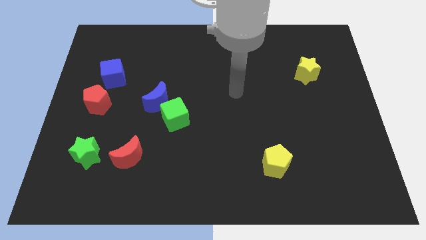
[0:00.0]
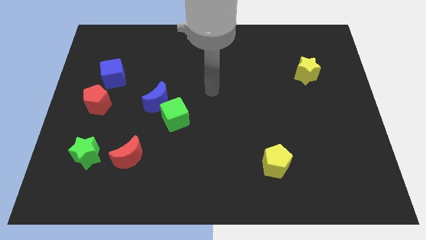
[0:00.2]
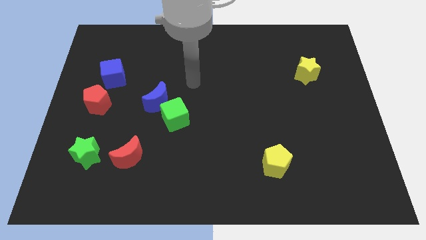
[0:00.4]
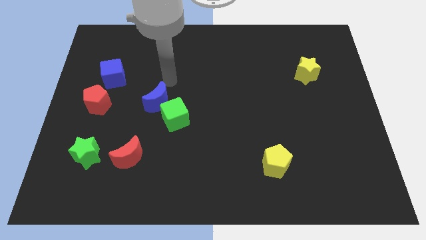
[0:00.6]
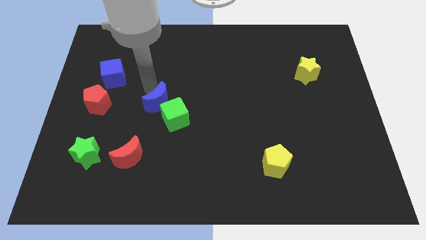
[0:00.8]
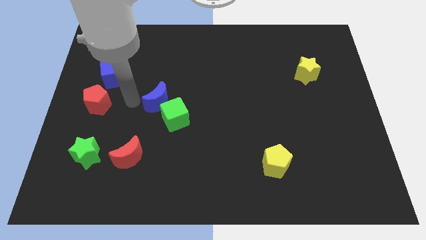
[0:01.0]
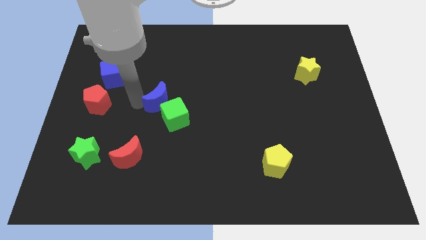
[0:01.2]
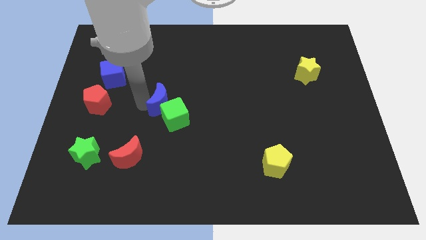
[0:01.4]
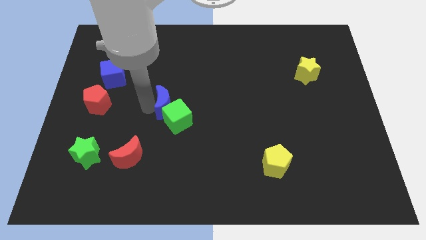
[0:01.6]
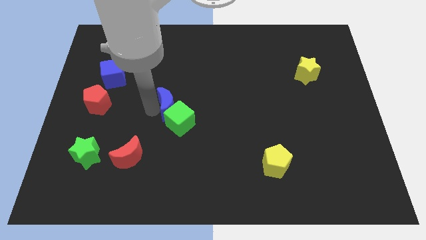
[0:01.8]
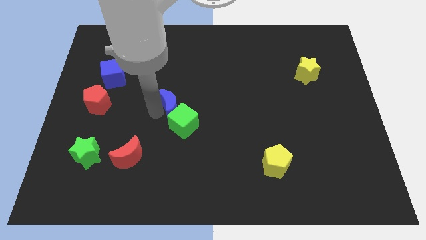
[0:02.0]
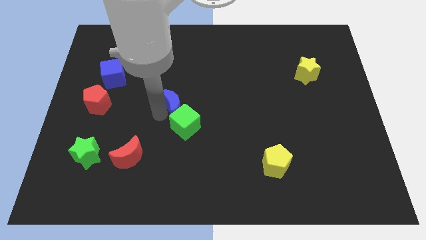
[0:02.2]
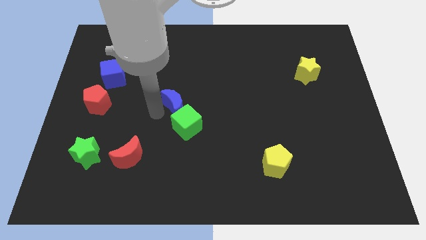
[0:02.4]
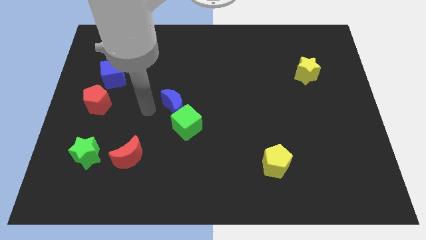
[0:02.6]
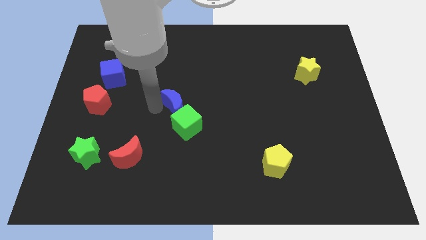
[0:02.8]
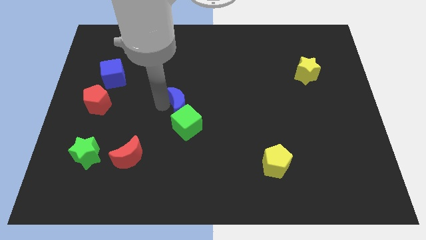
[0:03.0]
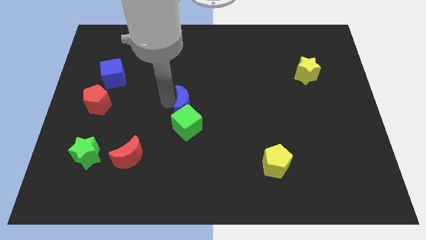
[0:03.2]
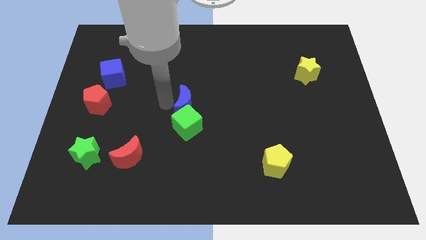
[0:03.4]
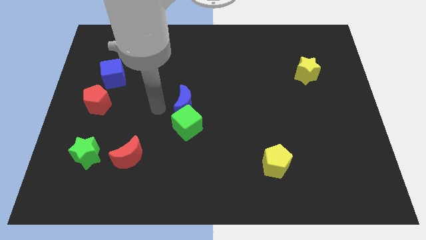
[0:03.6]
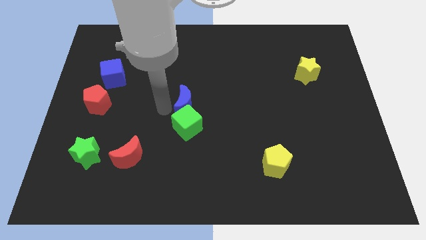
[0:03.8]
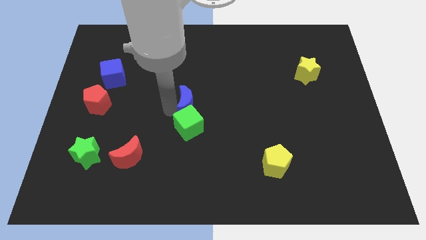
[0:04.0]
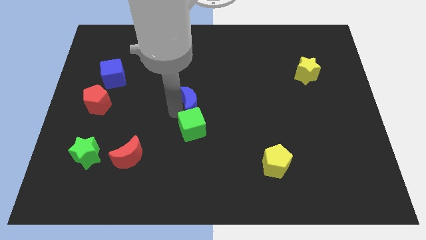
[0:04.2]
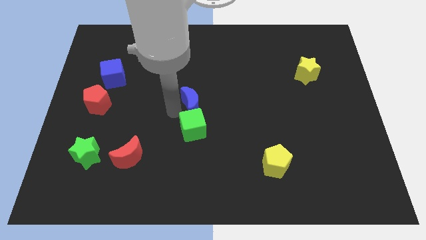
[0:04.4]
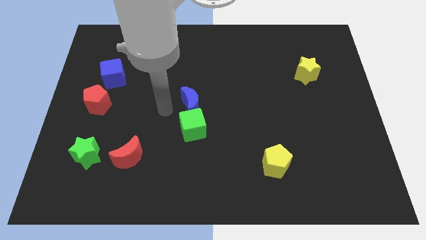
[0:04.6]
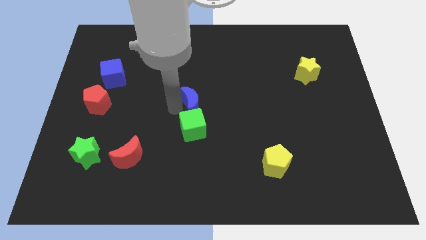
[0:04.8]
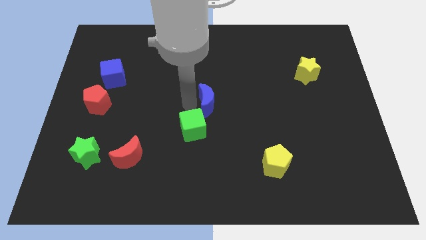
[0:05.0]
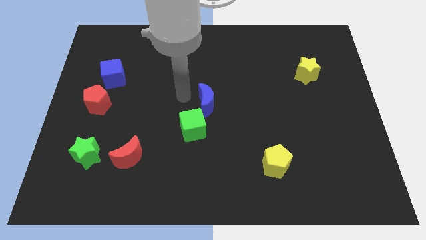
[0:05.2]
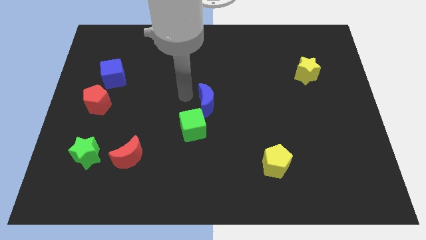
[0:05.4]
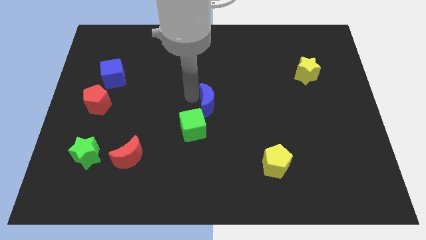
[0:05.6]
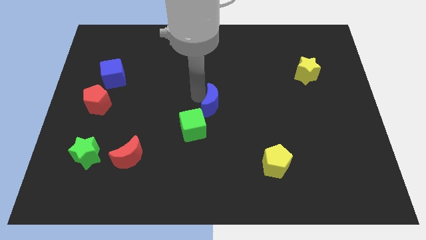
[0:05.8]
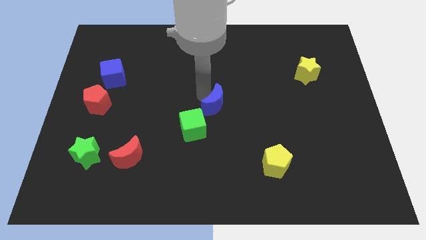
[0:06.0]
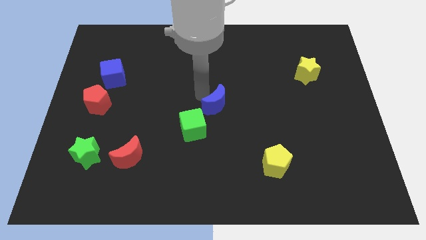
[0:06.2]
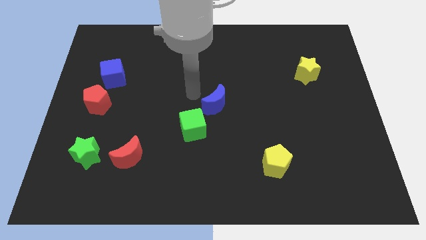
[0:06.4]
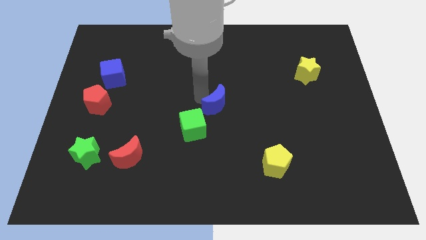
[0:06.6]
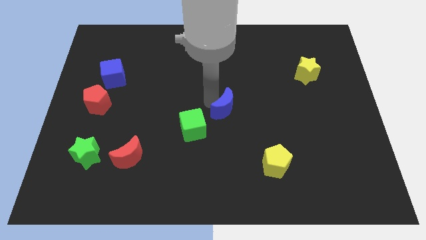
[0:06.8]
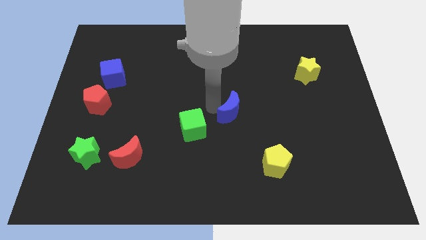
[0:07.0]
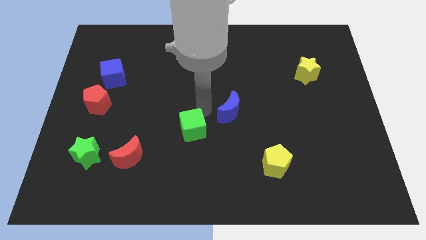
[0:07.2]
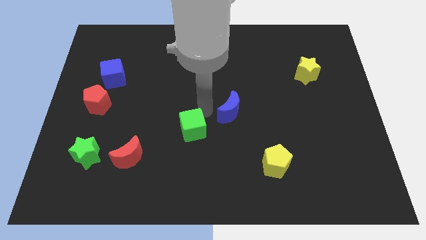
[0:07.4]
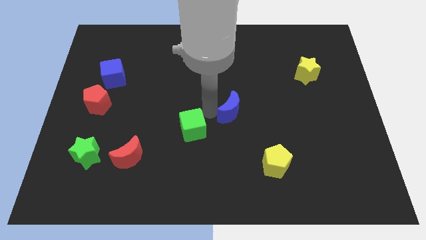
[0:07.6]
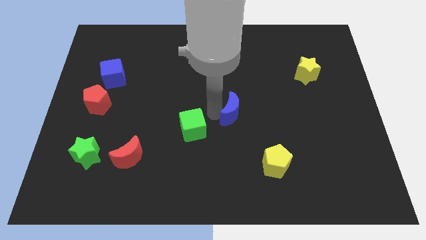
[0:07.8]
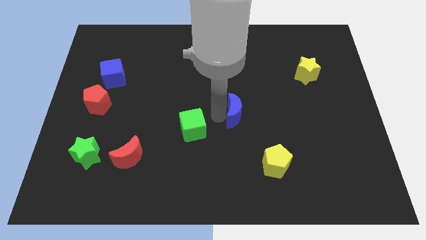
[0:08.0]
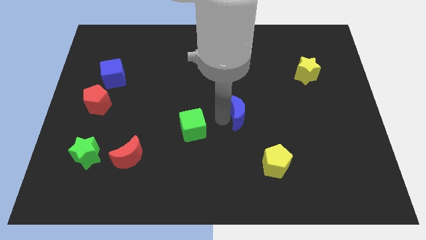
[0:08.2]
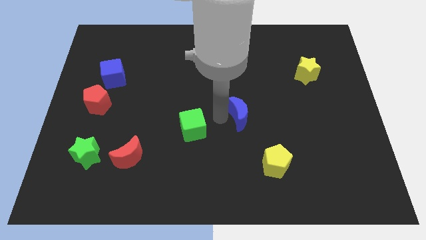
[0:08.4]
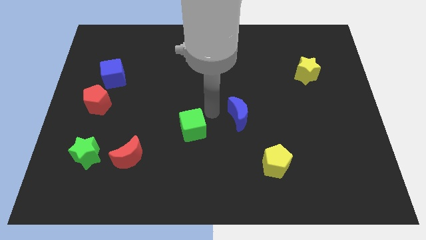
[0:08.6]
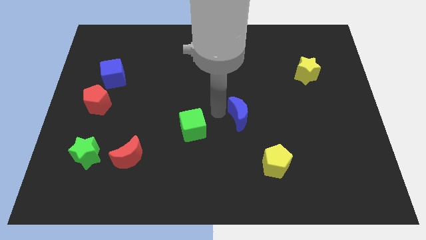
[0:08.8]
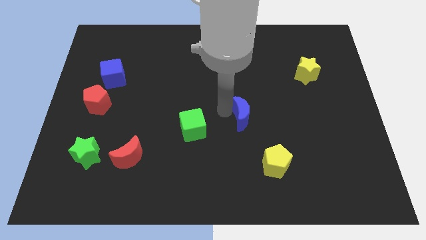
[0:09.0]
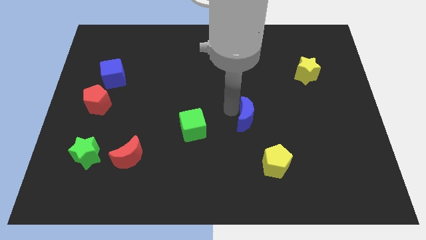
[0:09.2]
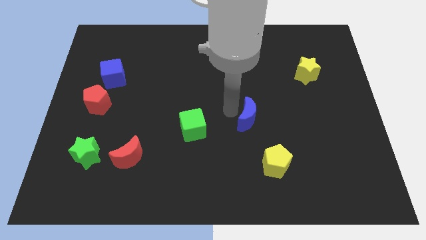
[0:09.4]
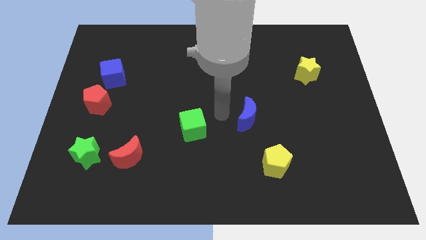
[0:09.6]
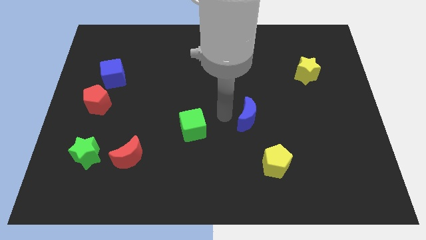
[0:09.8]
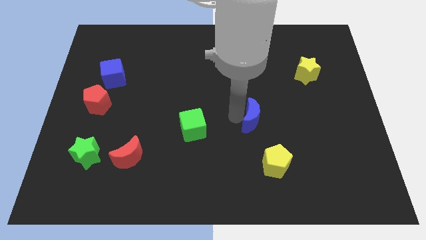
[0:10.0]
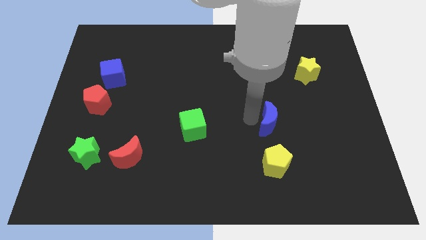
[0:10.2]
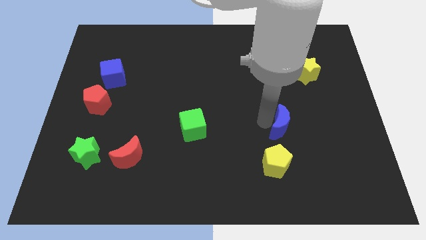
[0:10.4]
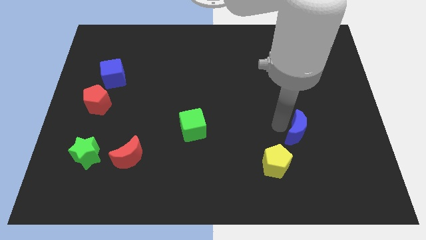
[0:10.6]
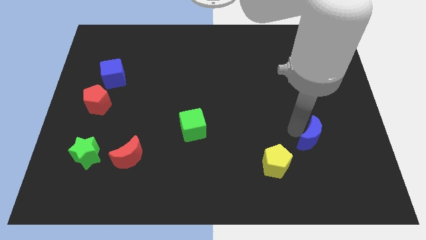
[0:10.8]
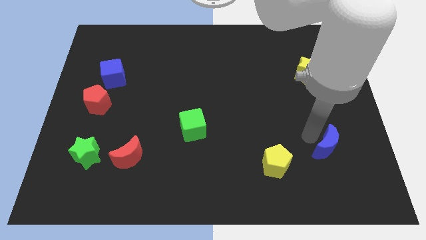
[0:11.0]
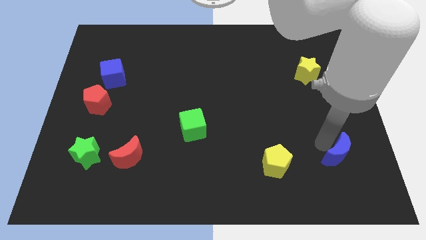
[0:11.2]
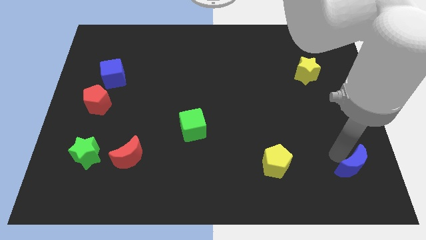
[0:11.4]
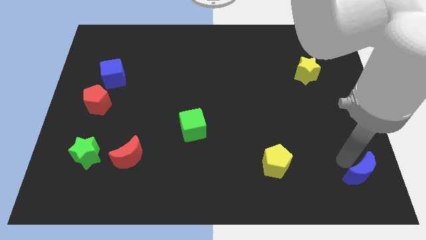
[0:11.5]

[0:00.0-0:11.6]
slide the blue moon to the bottom right of the board

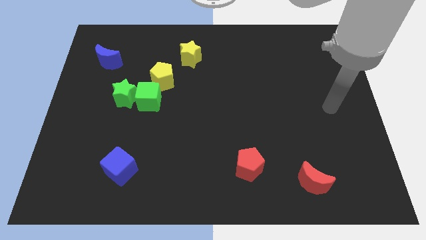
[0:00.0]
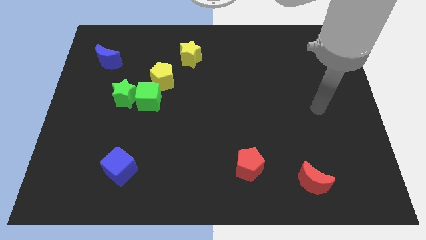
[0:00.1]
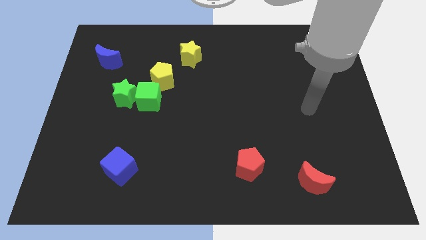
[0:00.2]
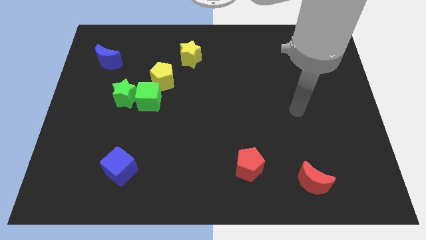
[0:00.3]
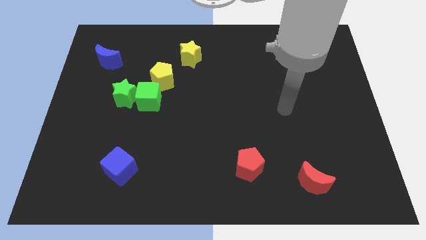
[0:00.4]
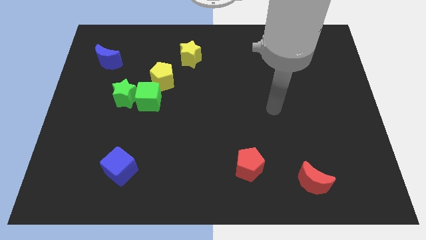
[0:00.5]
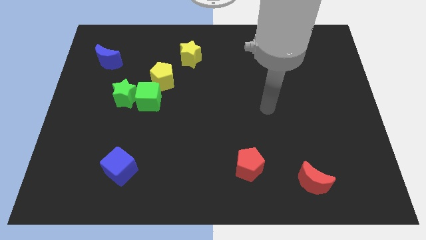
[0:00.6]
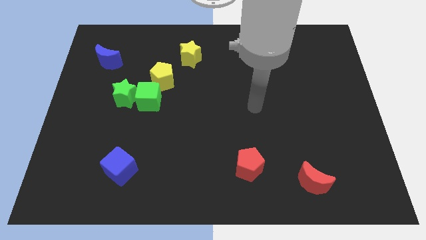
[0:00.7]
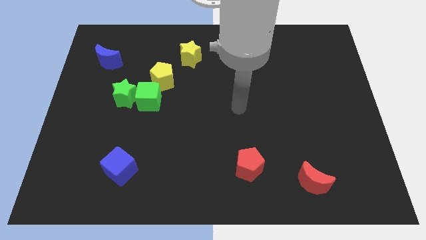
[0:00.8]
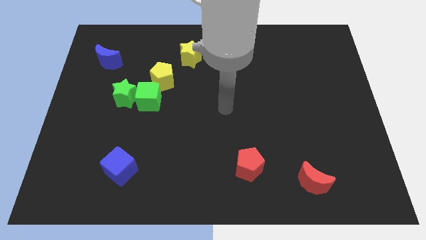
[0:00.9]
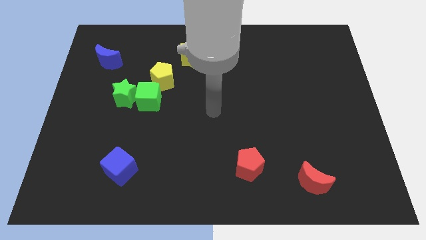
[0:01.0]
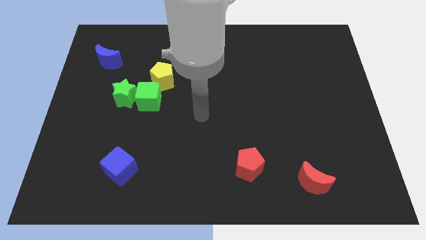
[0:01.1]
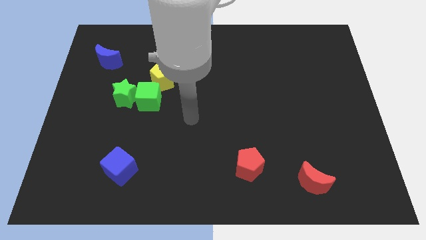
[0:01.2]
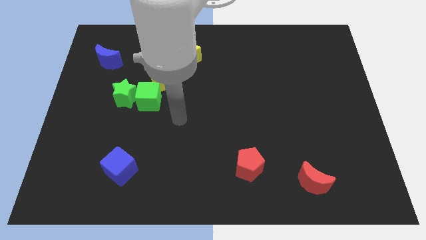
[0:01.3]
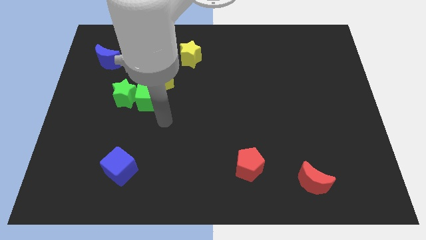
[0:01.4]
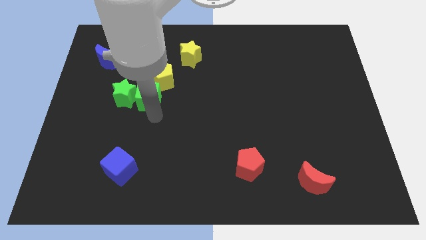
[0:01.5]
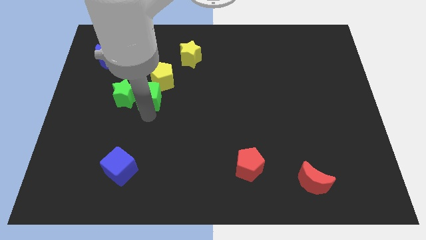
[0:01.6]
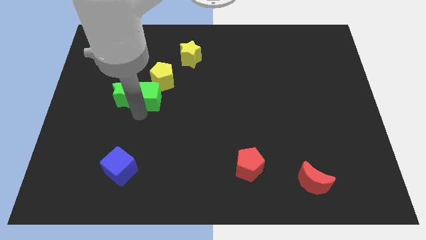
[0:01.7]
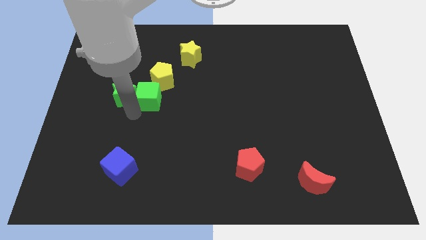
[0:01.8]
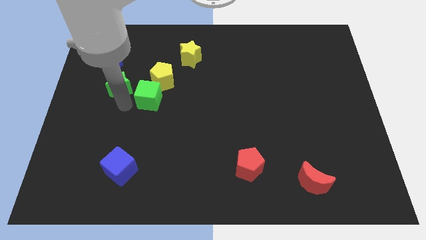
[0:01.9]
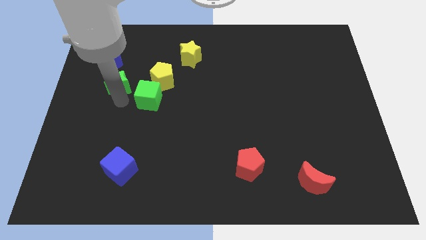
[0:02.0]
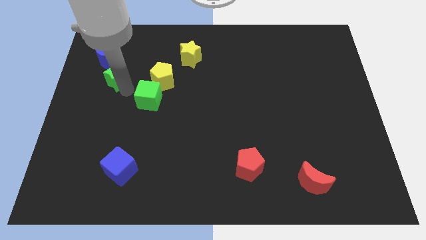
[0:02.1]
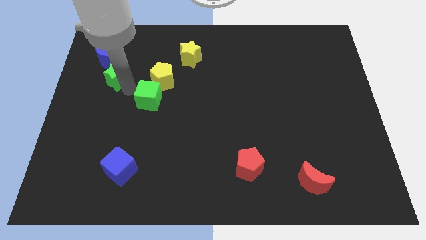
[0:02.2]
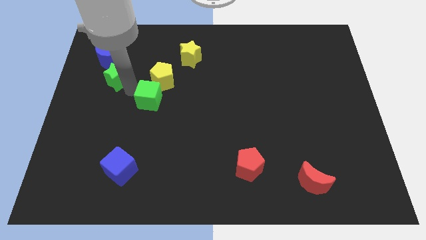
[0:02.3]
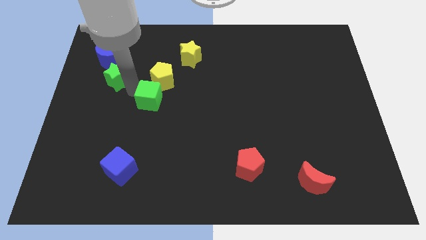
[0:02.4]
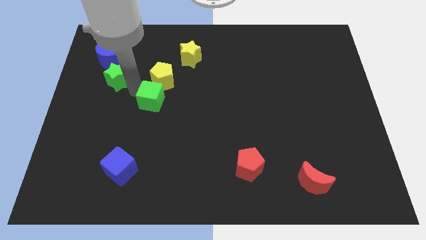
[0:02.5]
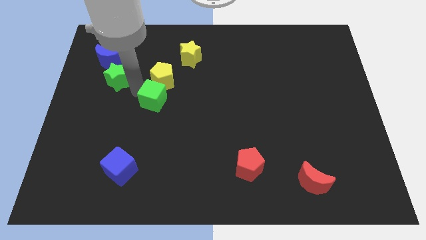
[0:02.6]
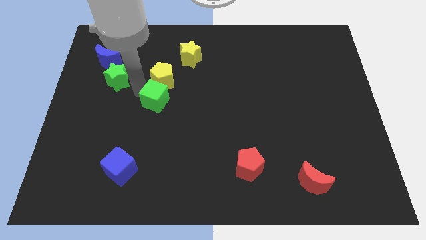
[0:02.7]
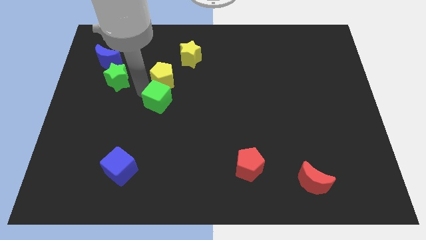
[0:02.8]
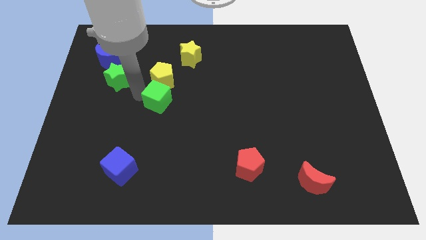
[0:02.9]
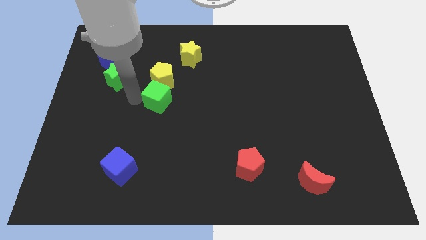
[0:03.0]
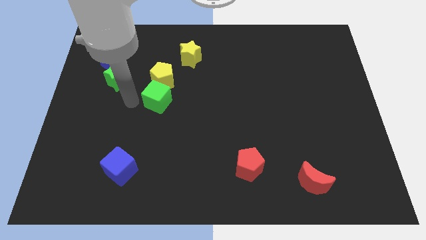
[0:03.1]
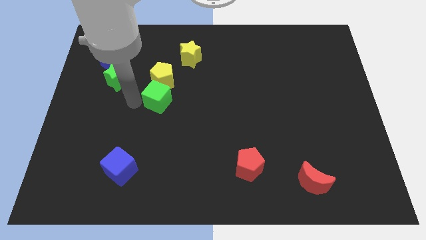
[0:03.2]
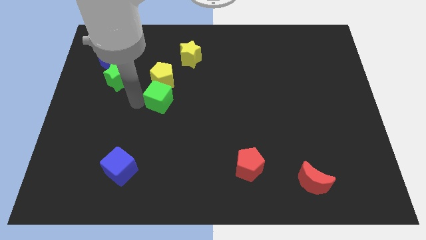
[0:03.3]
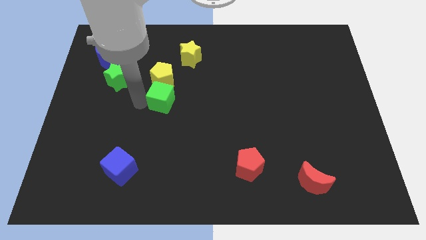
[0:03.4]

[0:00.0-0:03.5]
move the green cube to the center
